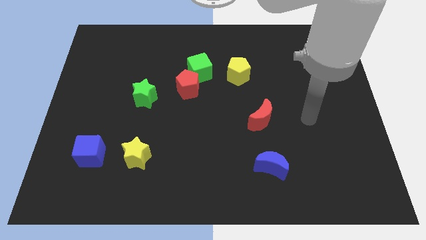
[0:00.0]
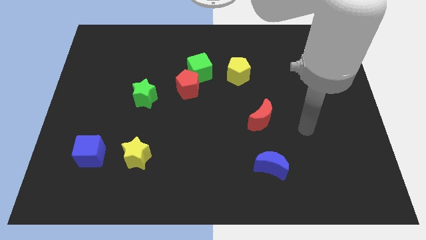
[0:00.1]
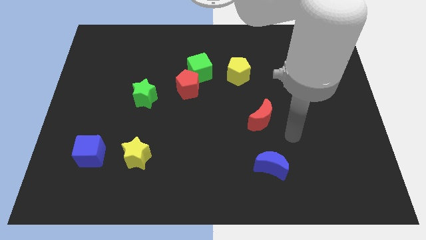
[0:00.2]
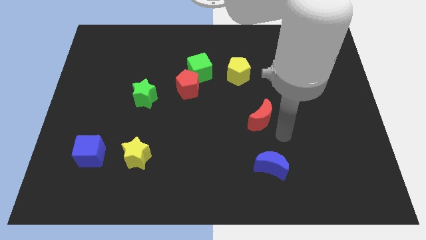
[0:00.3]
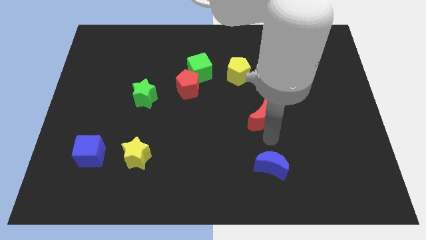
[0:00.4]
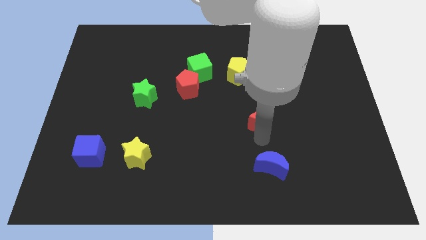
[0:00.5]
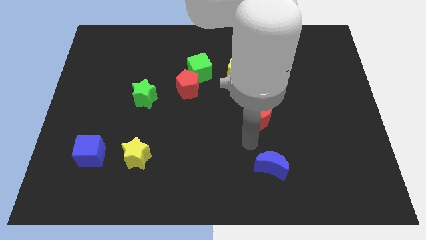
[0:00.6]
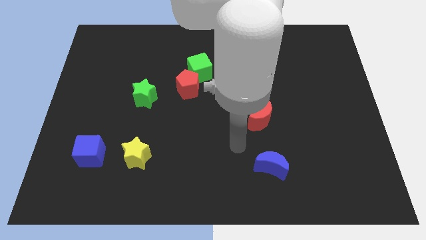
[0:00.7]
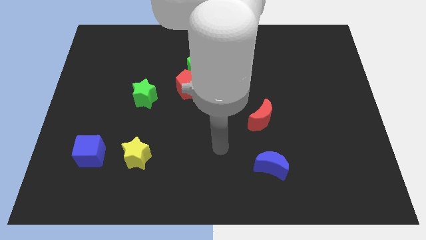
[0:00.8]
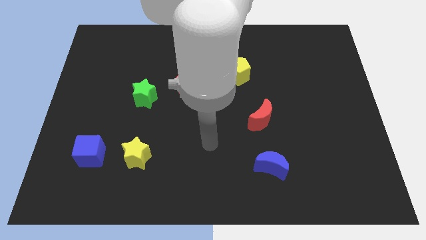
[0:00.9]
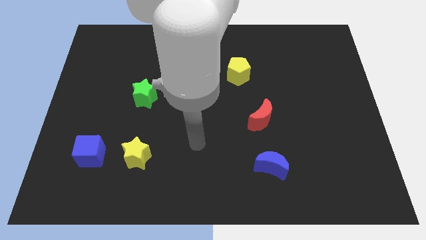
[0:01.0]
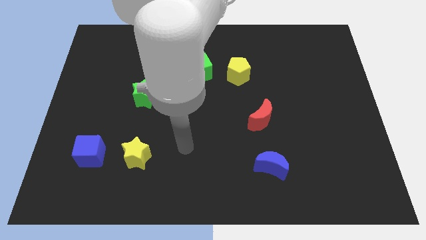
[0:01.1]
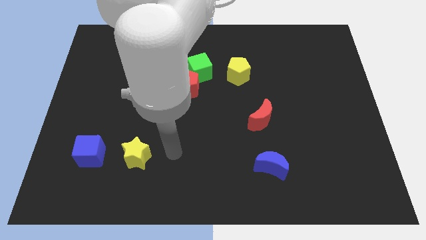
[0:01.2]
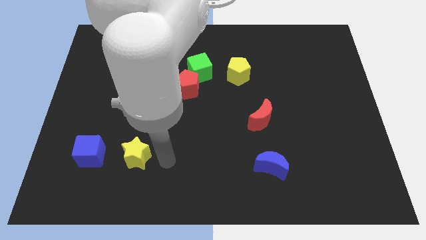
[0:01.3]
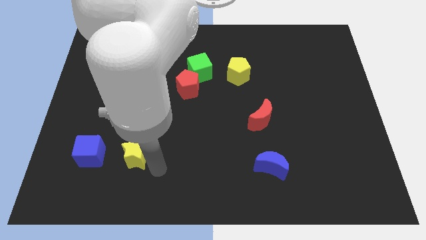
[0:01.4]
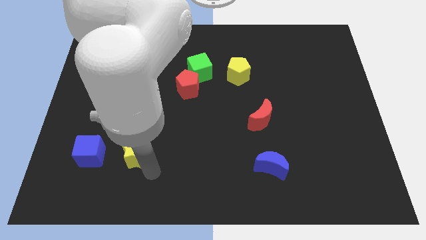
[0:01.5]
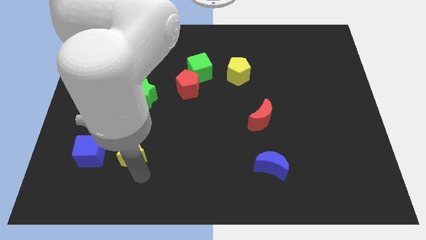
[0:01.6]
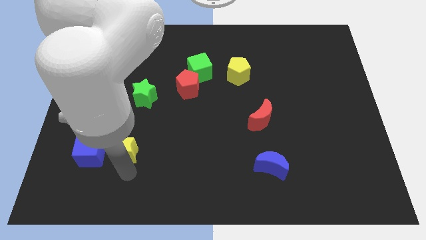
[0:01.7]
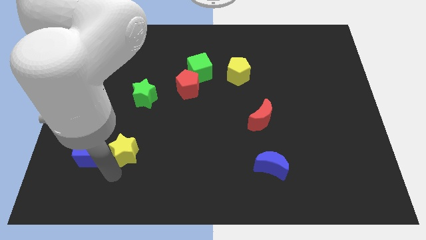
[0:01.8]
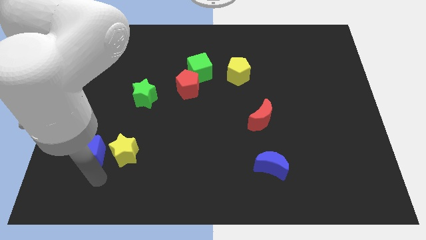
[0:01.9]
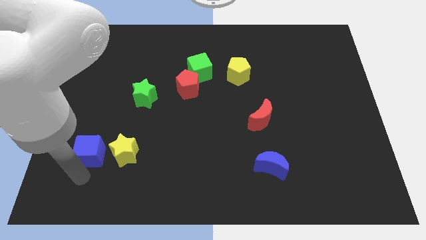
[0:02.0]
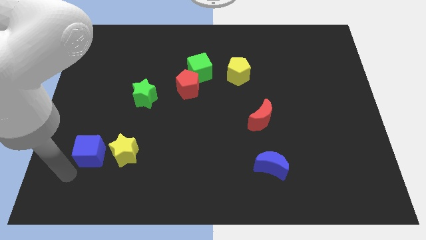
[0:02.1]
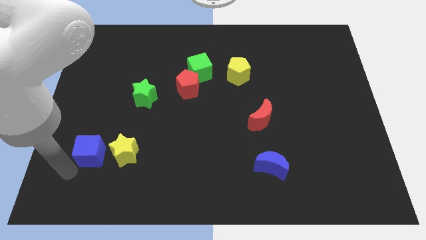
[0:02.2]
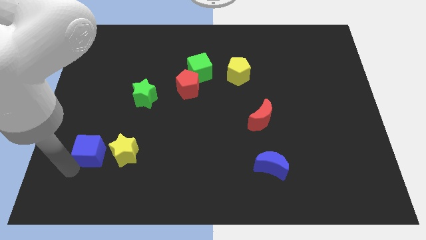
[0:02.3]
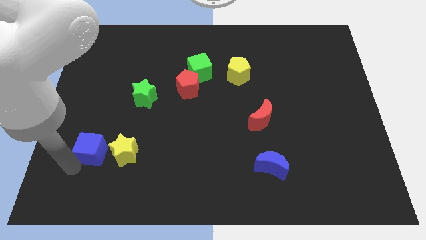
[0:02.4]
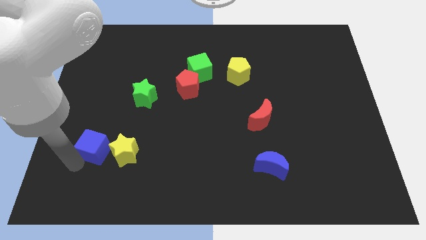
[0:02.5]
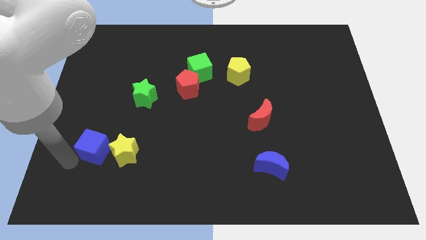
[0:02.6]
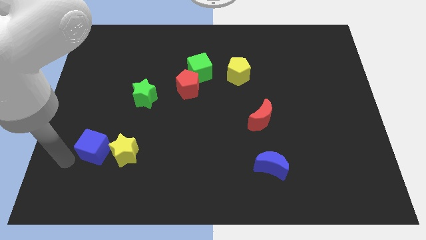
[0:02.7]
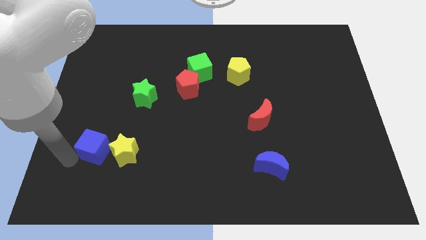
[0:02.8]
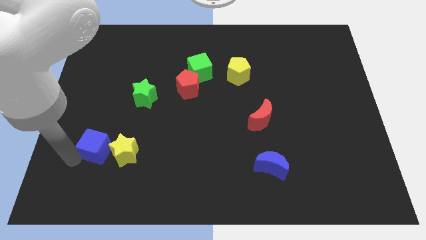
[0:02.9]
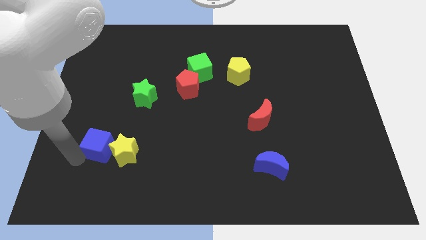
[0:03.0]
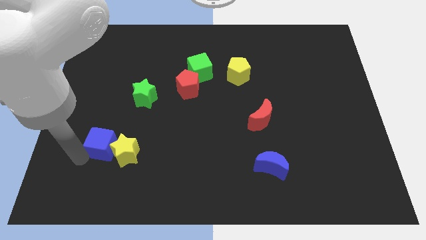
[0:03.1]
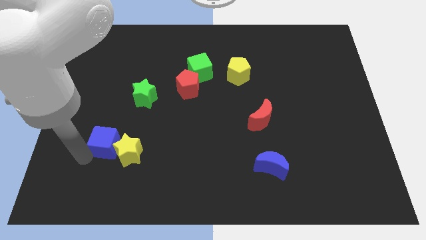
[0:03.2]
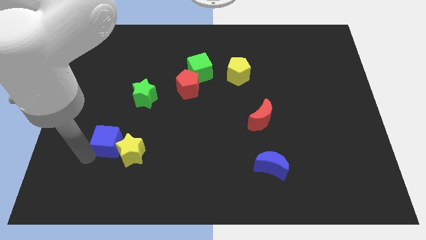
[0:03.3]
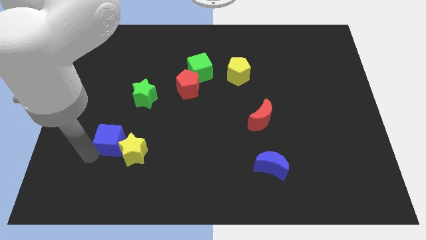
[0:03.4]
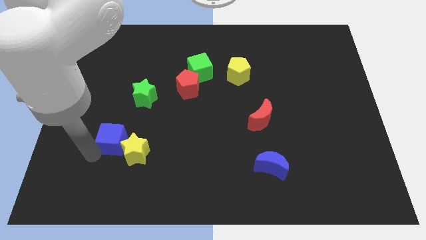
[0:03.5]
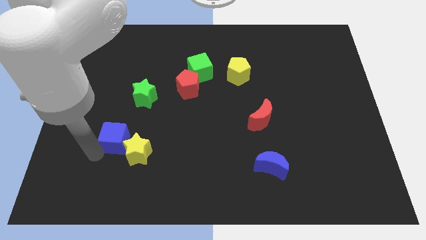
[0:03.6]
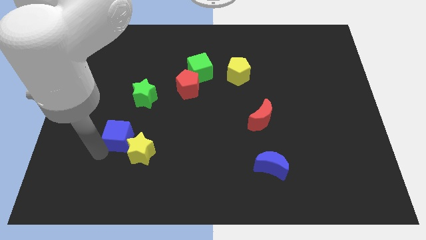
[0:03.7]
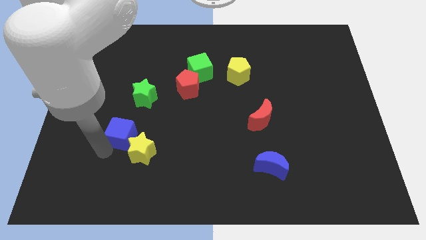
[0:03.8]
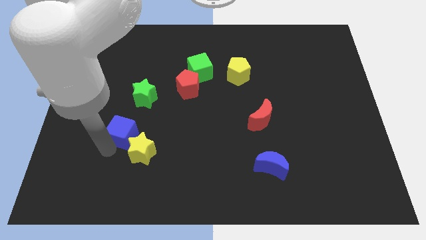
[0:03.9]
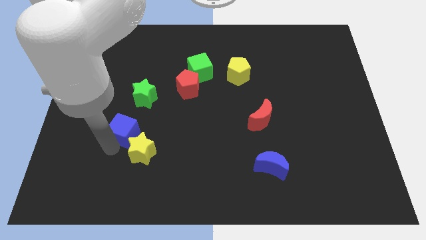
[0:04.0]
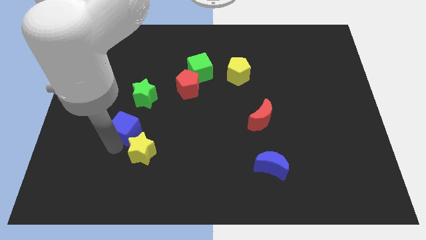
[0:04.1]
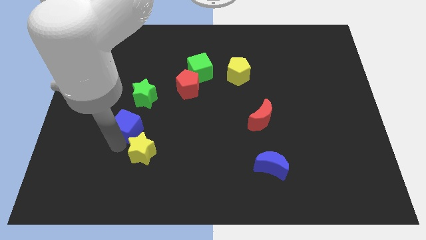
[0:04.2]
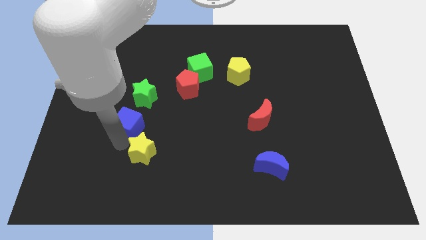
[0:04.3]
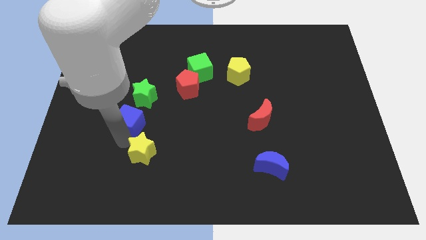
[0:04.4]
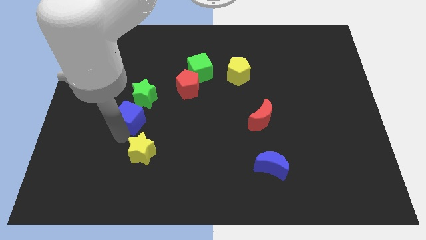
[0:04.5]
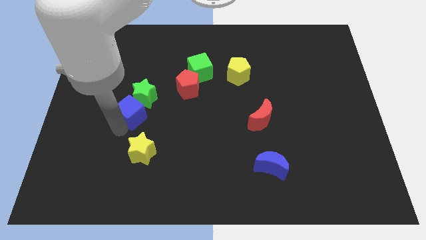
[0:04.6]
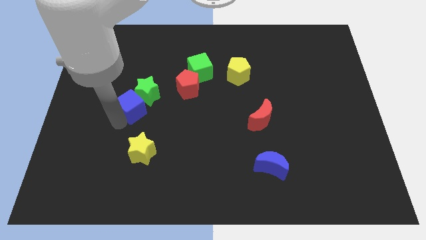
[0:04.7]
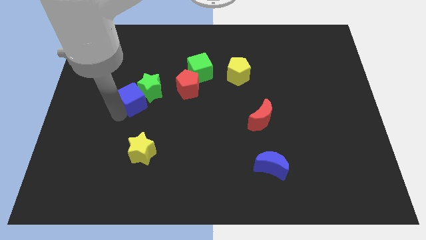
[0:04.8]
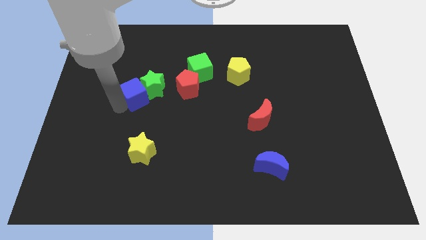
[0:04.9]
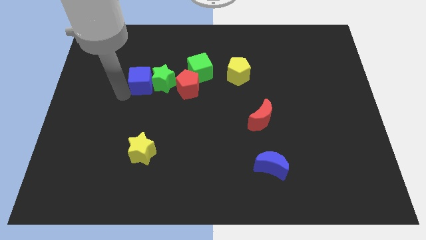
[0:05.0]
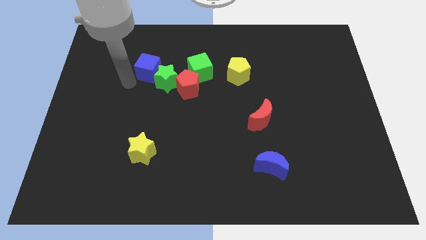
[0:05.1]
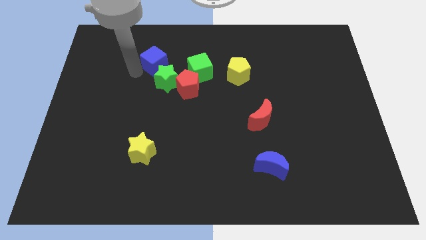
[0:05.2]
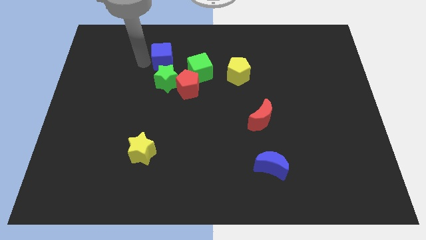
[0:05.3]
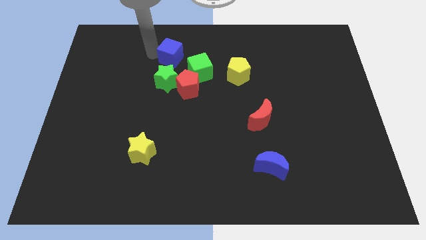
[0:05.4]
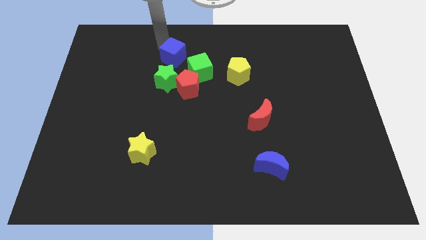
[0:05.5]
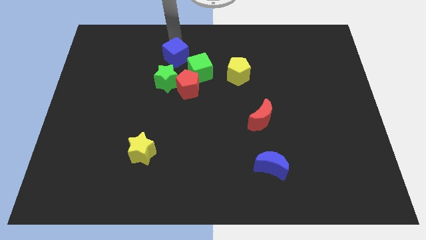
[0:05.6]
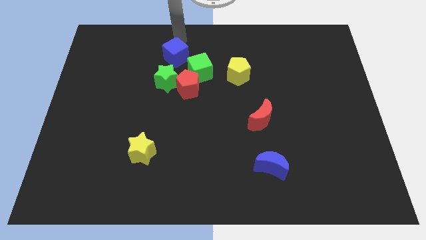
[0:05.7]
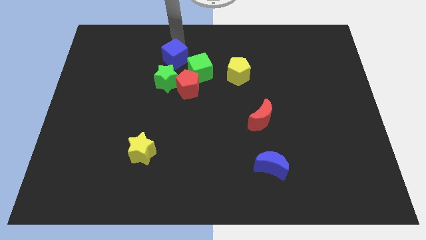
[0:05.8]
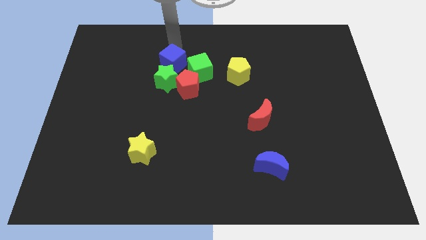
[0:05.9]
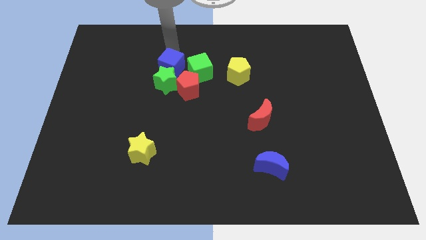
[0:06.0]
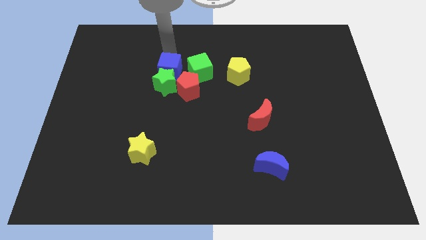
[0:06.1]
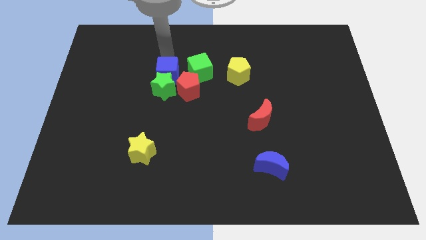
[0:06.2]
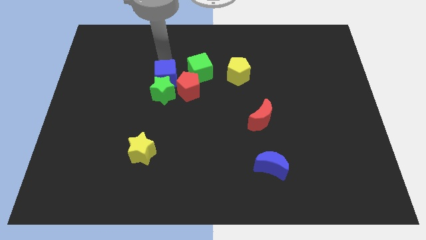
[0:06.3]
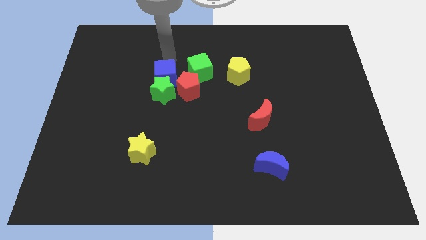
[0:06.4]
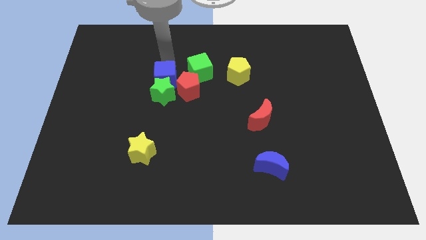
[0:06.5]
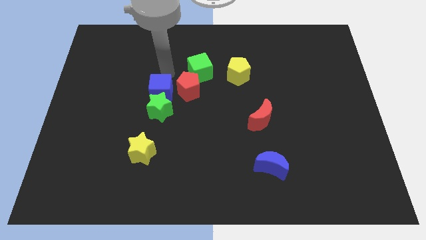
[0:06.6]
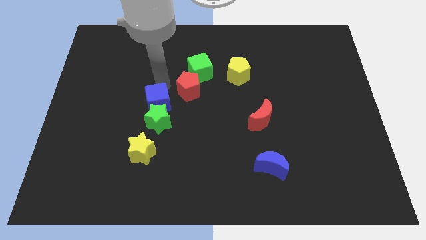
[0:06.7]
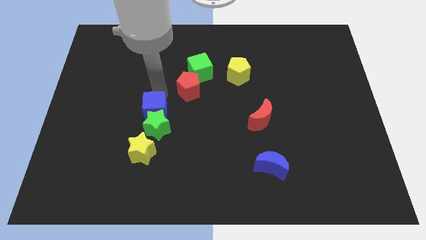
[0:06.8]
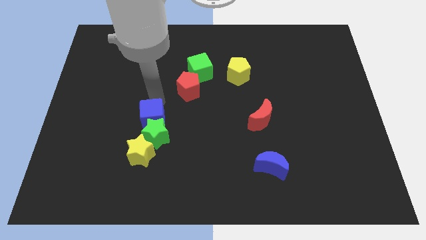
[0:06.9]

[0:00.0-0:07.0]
slightly move the blue cube to the right

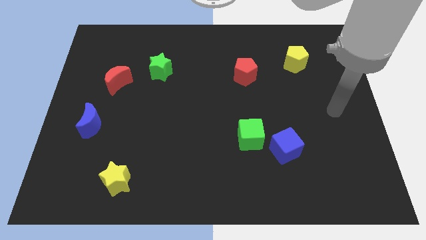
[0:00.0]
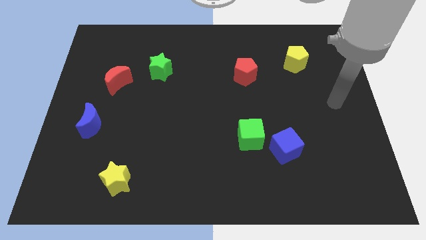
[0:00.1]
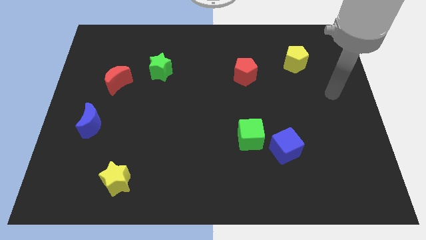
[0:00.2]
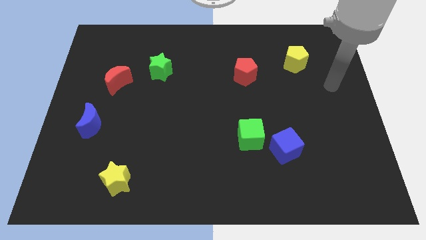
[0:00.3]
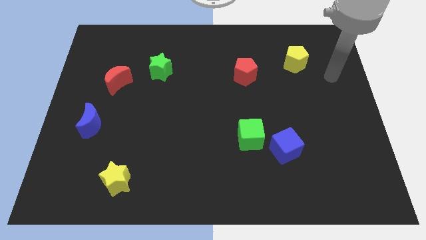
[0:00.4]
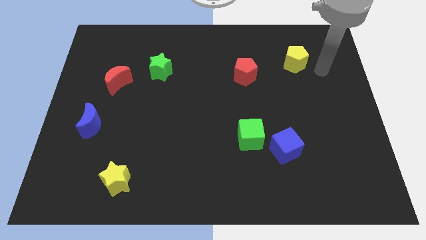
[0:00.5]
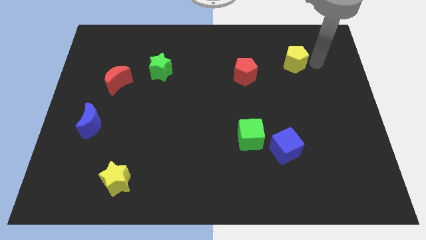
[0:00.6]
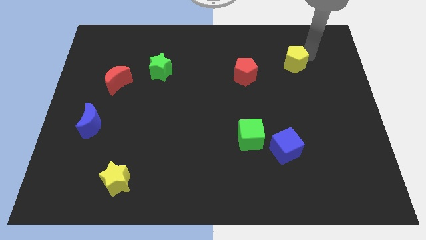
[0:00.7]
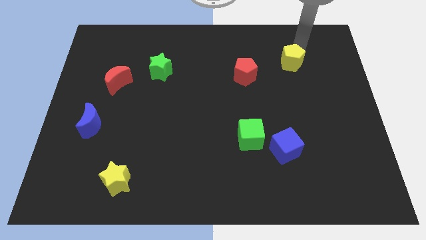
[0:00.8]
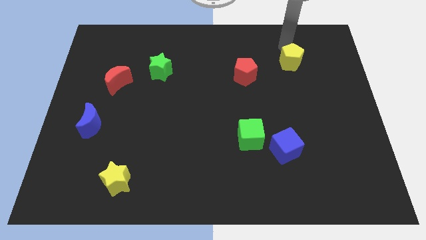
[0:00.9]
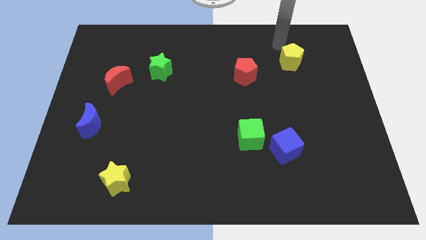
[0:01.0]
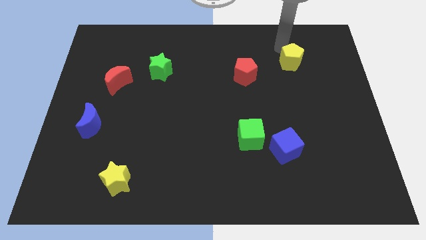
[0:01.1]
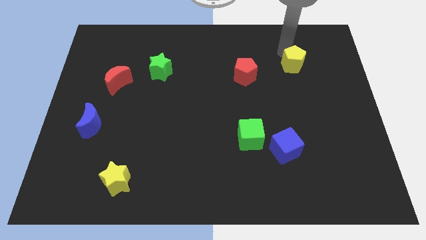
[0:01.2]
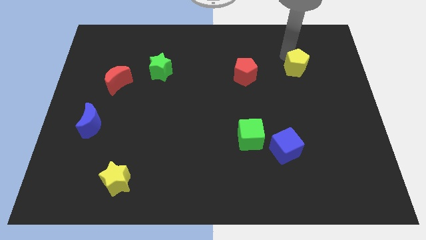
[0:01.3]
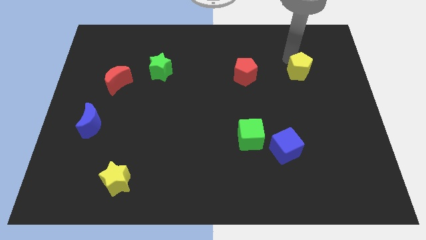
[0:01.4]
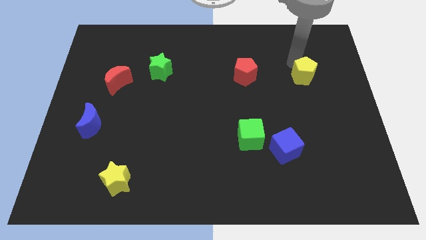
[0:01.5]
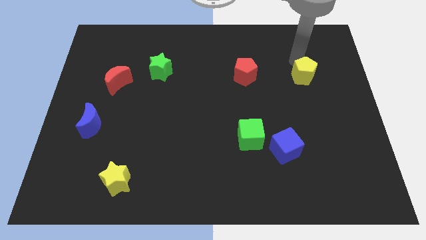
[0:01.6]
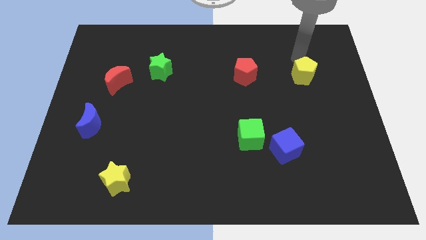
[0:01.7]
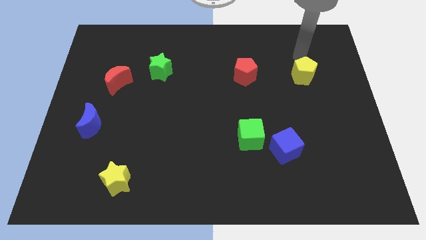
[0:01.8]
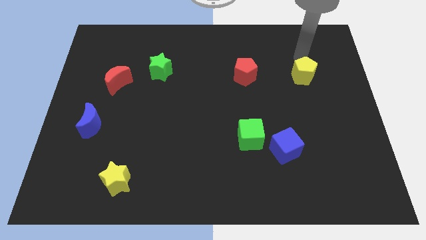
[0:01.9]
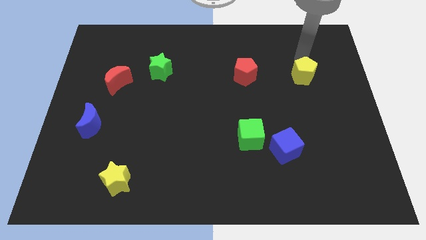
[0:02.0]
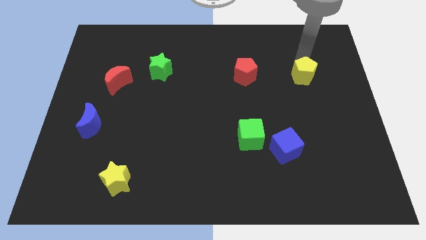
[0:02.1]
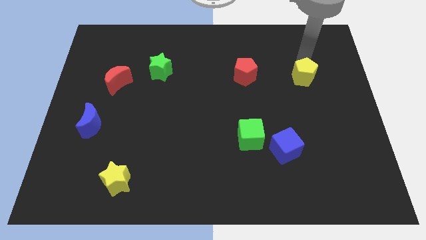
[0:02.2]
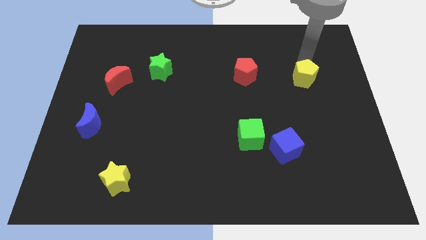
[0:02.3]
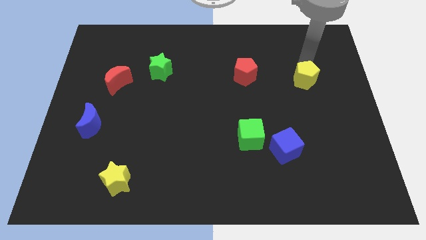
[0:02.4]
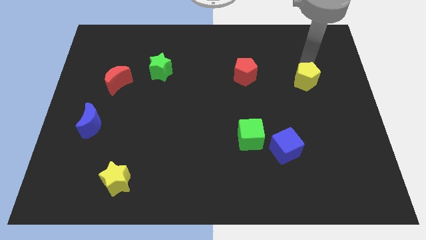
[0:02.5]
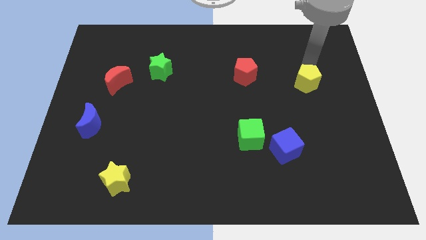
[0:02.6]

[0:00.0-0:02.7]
slide the yellow pentagon slightly downwards
